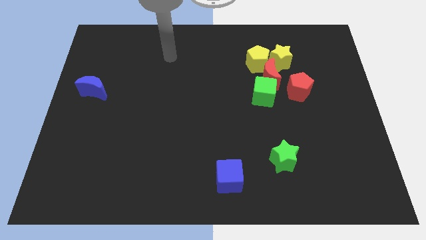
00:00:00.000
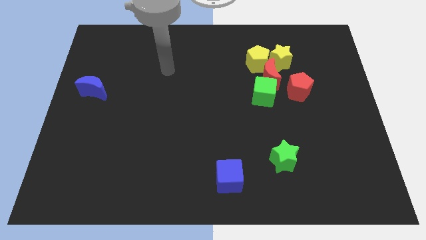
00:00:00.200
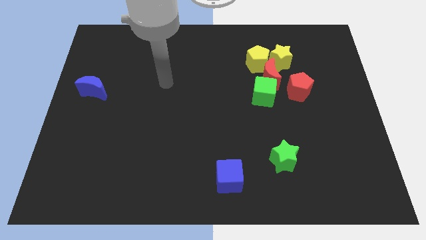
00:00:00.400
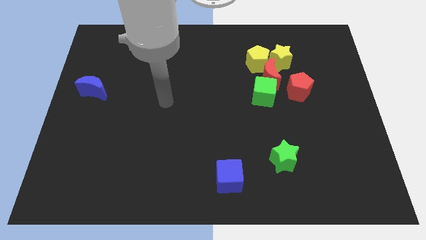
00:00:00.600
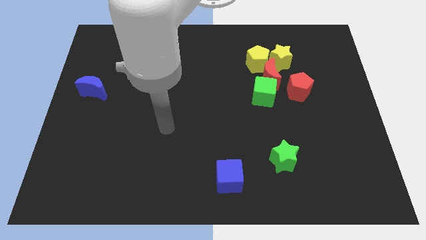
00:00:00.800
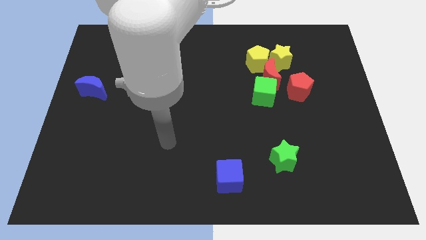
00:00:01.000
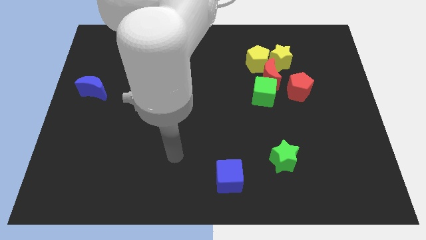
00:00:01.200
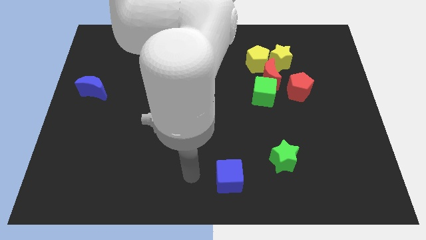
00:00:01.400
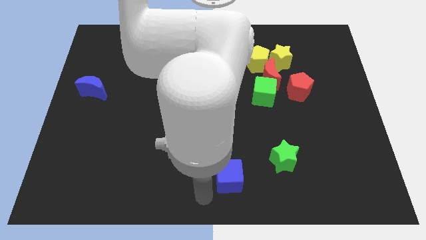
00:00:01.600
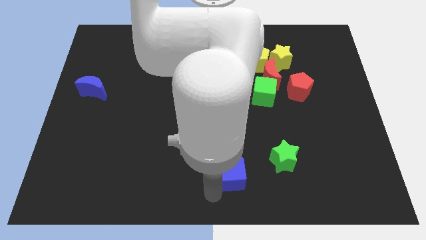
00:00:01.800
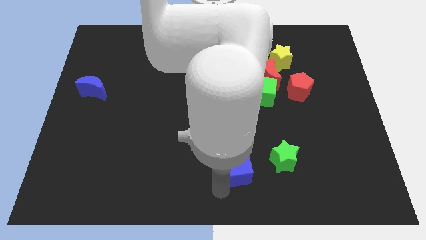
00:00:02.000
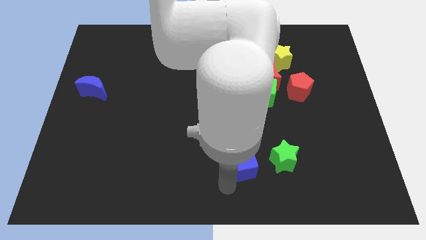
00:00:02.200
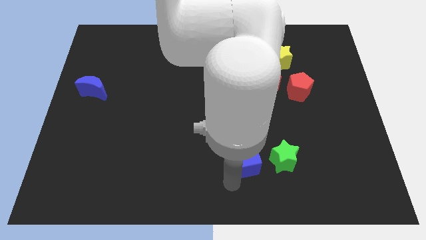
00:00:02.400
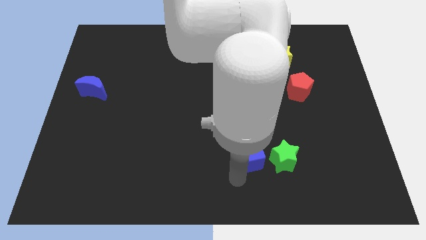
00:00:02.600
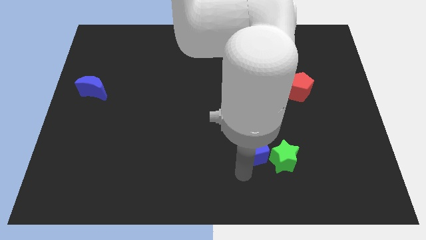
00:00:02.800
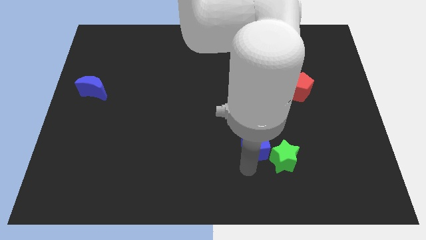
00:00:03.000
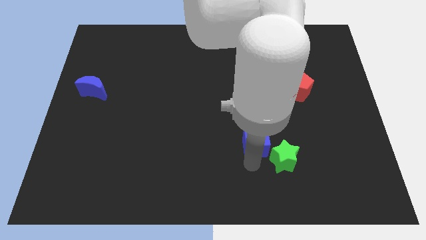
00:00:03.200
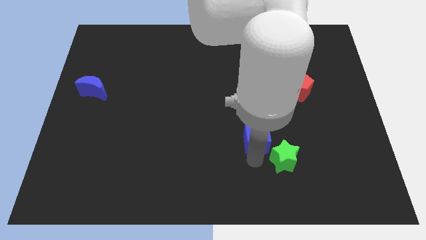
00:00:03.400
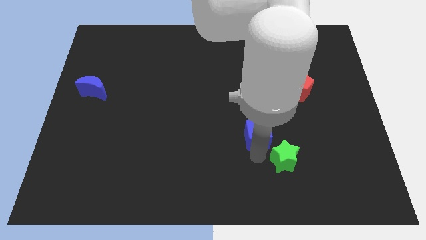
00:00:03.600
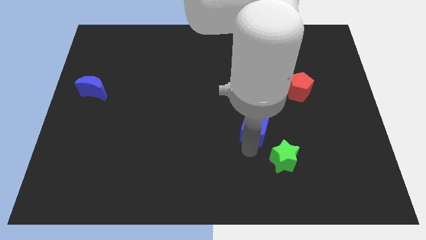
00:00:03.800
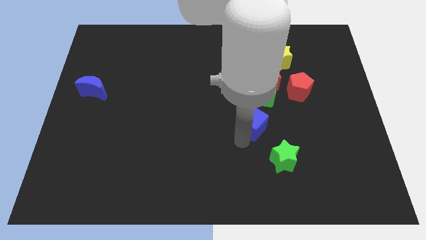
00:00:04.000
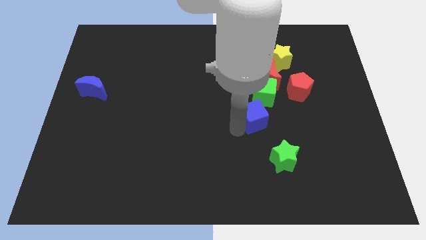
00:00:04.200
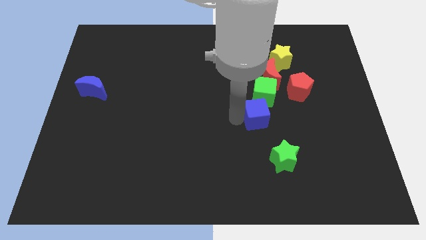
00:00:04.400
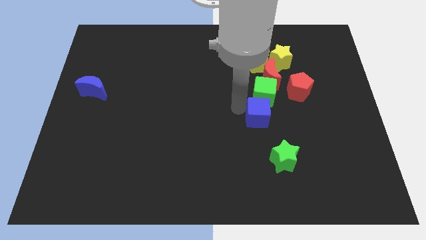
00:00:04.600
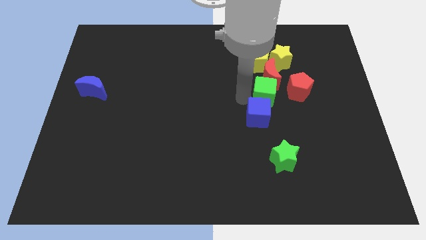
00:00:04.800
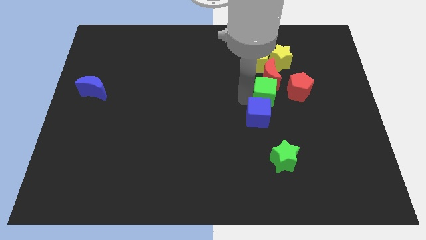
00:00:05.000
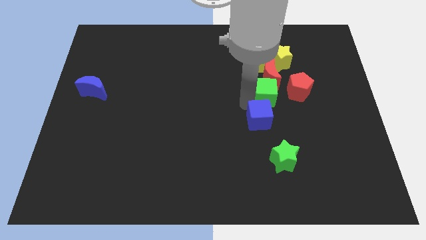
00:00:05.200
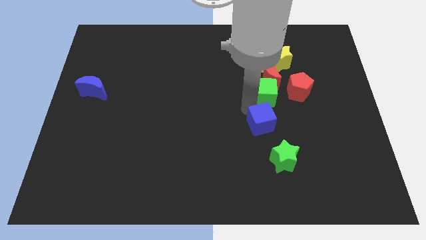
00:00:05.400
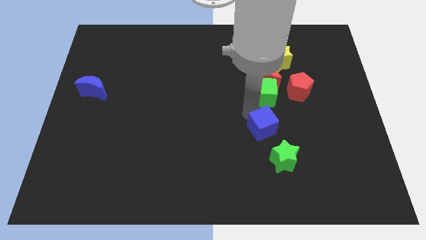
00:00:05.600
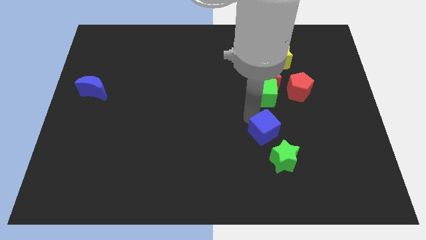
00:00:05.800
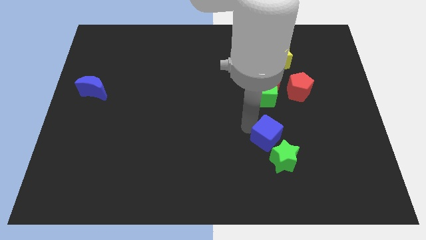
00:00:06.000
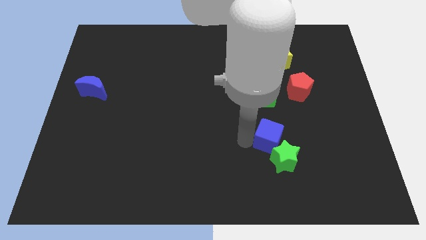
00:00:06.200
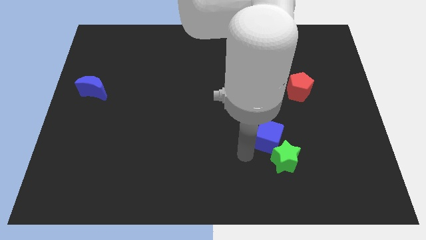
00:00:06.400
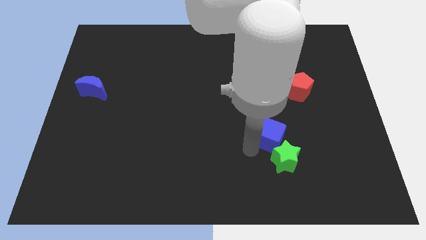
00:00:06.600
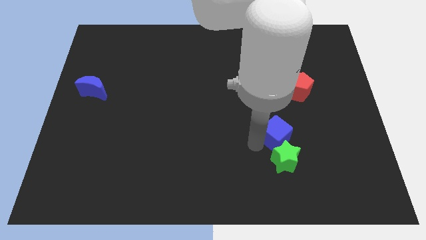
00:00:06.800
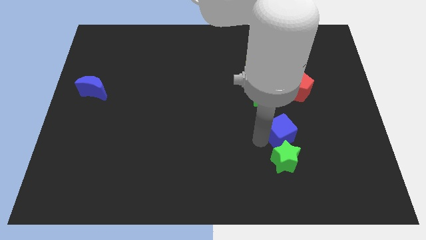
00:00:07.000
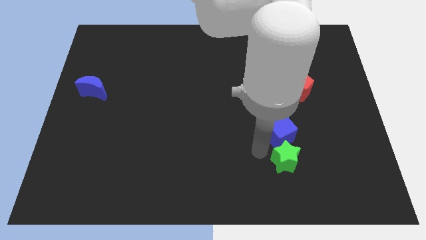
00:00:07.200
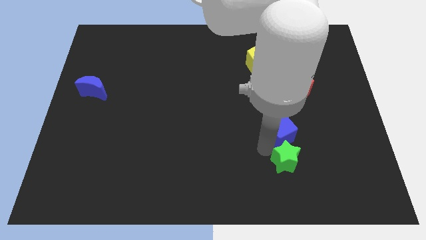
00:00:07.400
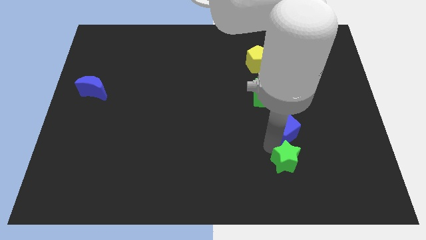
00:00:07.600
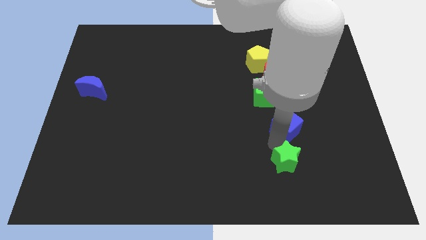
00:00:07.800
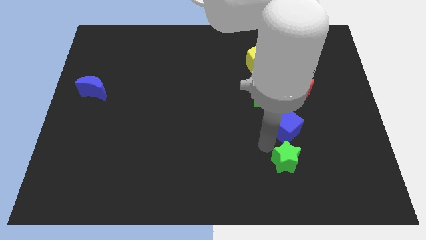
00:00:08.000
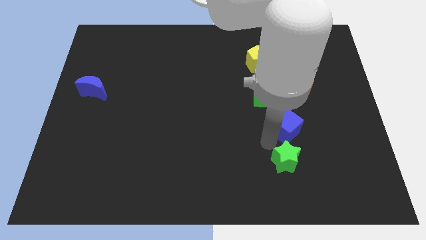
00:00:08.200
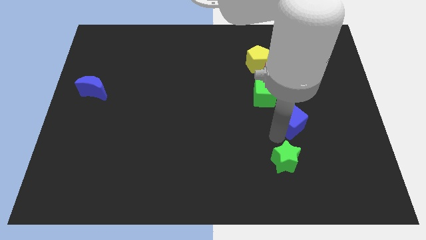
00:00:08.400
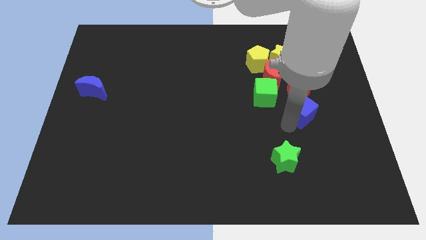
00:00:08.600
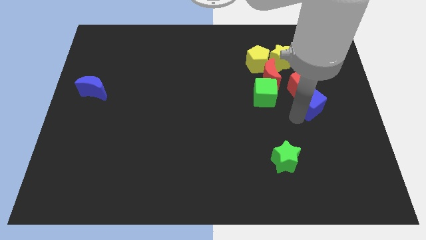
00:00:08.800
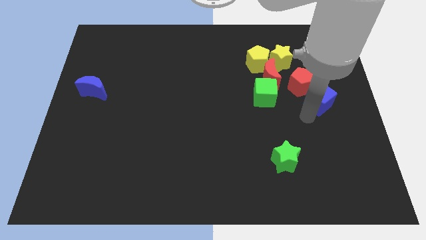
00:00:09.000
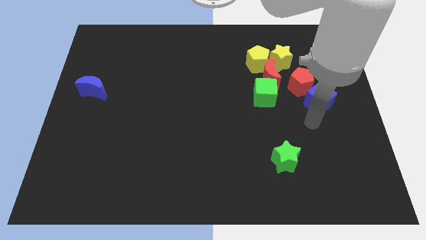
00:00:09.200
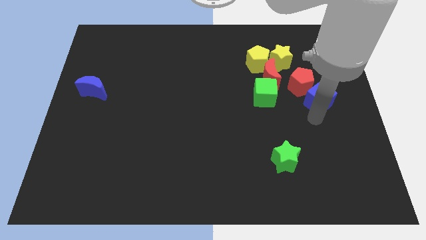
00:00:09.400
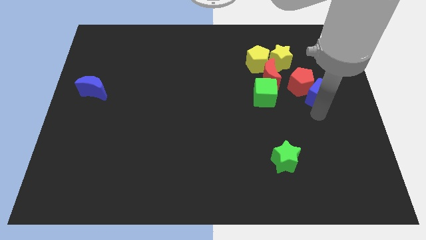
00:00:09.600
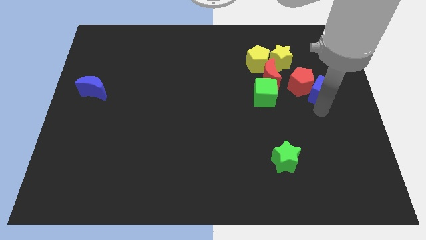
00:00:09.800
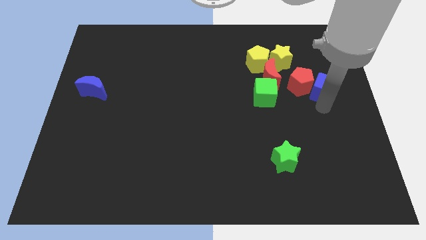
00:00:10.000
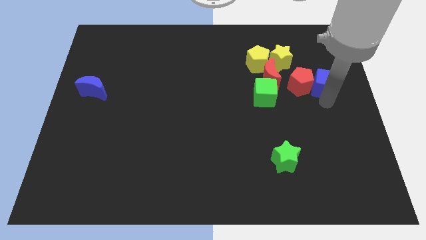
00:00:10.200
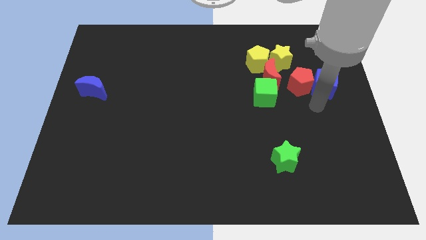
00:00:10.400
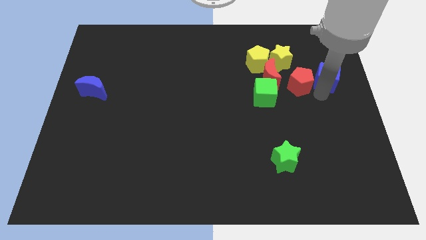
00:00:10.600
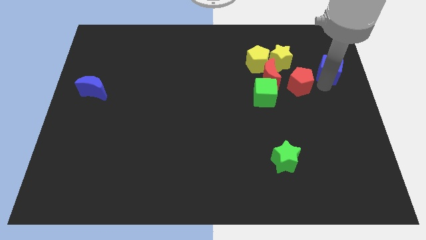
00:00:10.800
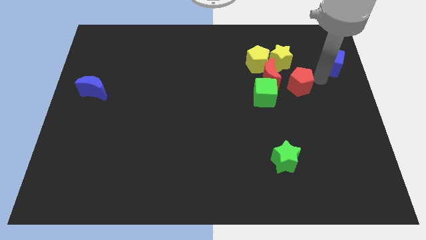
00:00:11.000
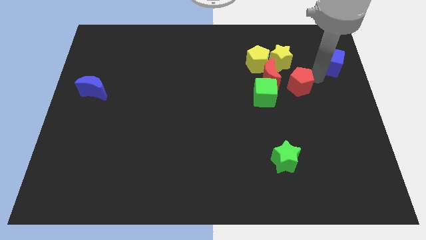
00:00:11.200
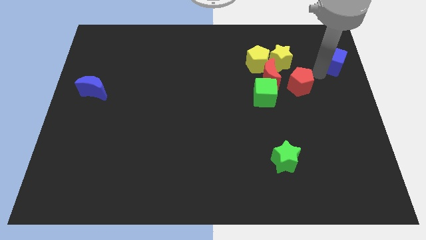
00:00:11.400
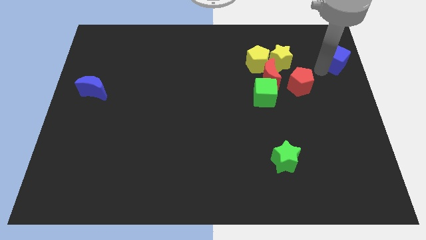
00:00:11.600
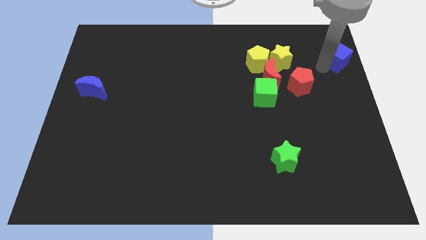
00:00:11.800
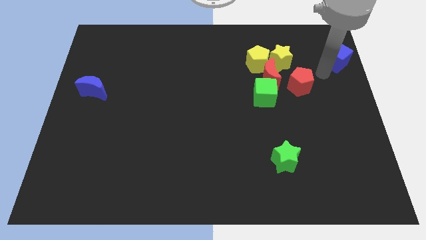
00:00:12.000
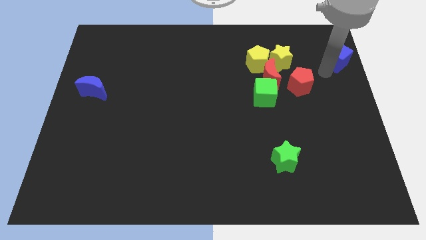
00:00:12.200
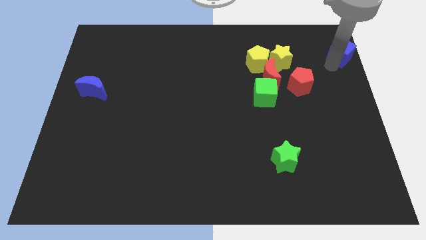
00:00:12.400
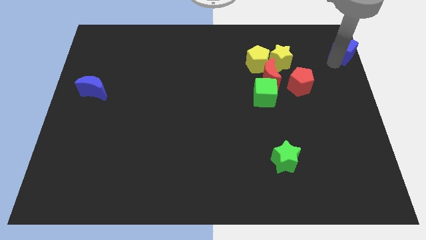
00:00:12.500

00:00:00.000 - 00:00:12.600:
put the blue cube to the top right corner
